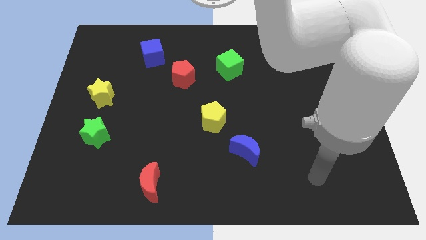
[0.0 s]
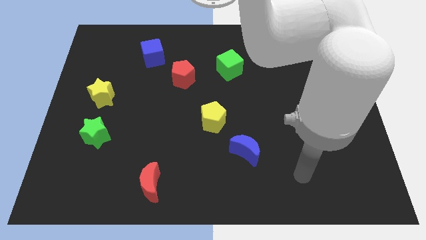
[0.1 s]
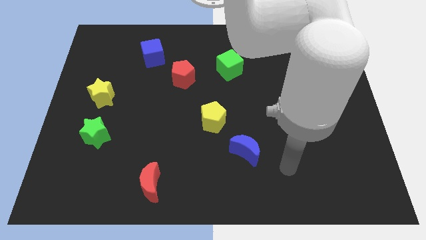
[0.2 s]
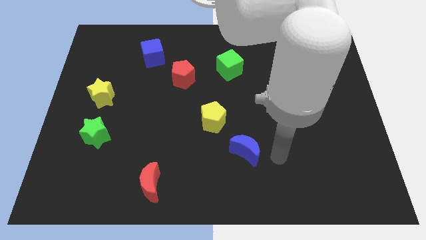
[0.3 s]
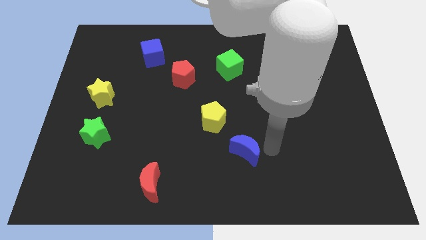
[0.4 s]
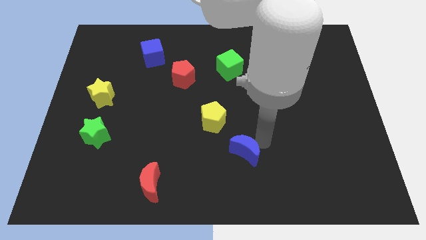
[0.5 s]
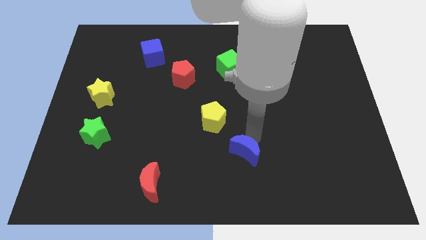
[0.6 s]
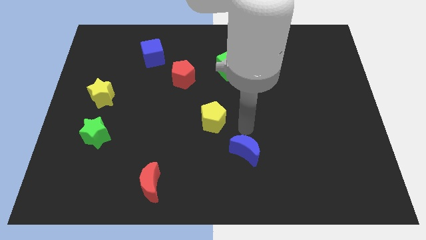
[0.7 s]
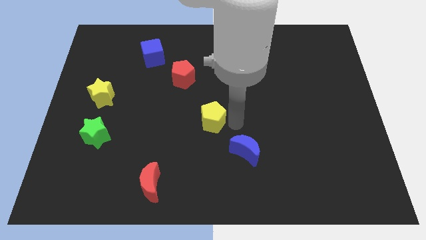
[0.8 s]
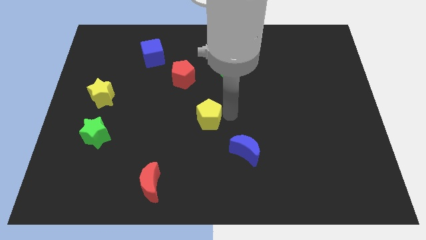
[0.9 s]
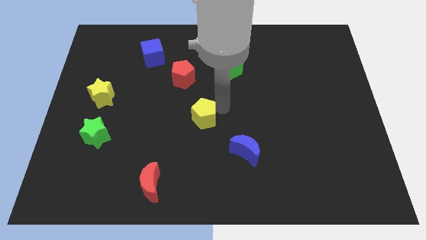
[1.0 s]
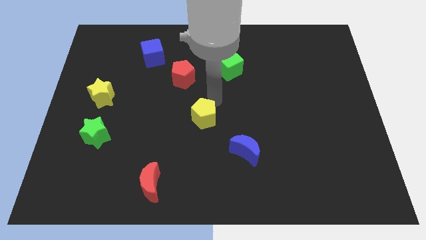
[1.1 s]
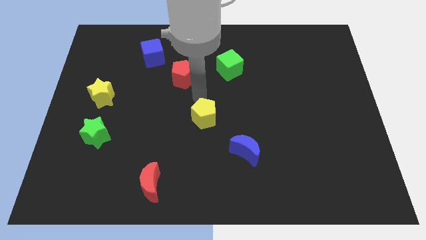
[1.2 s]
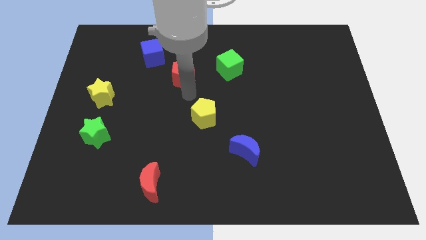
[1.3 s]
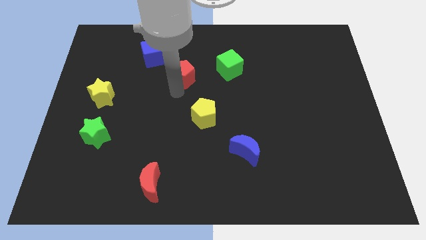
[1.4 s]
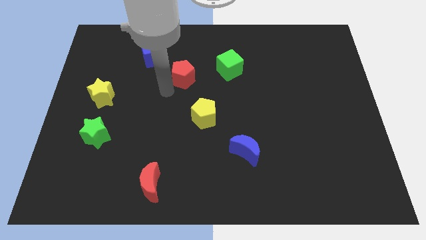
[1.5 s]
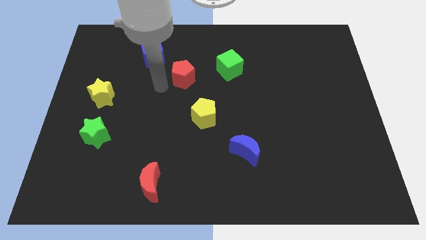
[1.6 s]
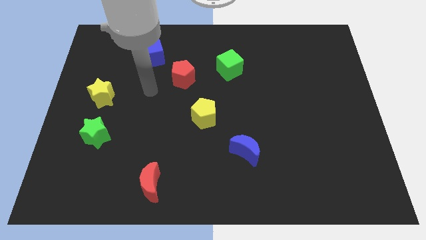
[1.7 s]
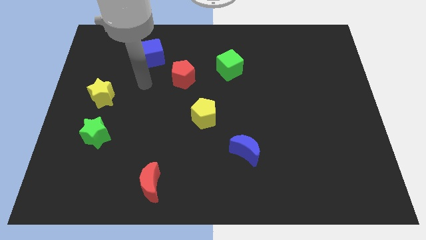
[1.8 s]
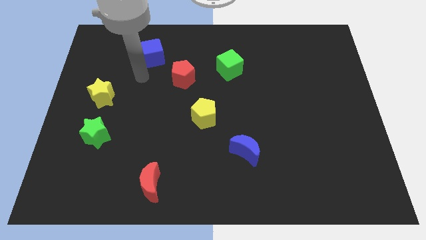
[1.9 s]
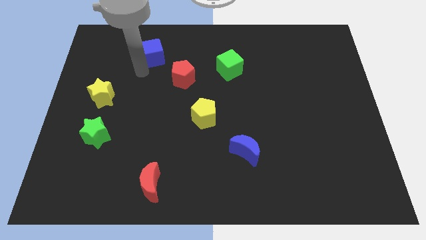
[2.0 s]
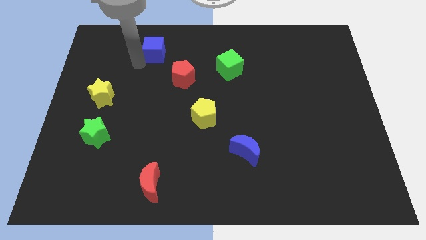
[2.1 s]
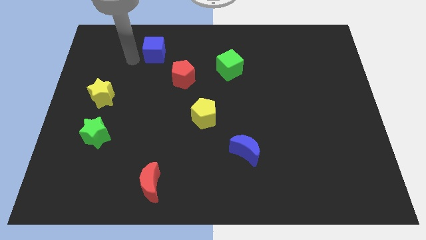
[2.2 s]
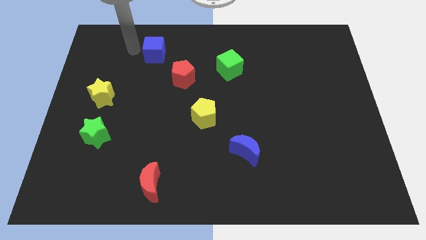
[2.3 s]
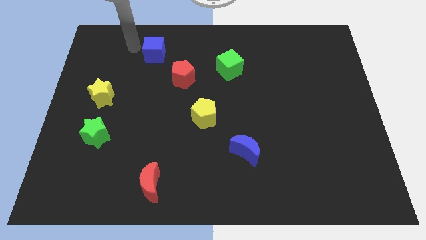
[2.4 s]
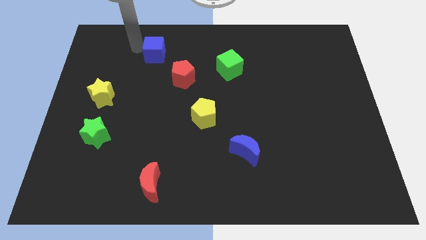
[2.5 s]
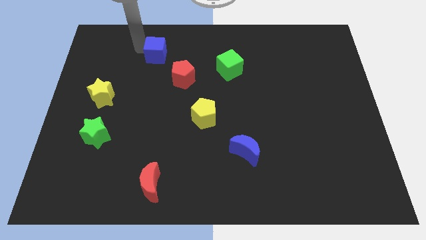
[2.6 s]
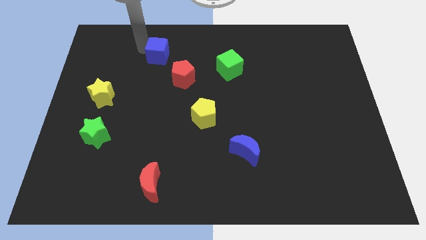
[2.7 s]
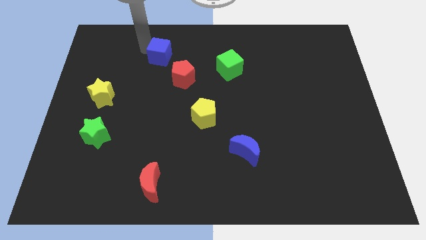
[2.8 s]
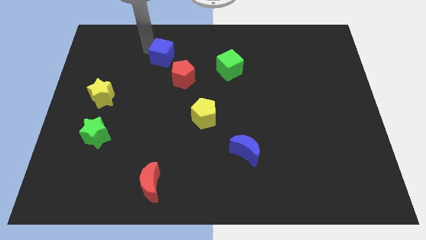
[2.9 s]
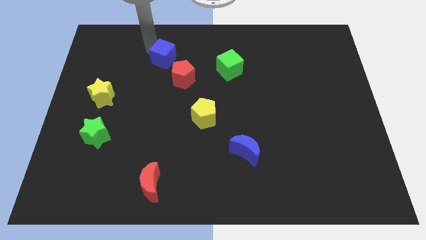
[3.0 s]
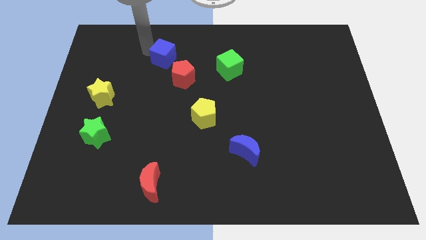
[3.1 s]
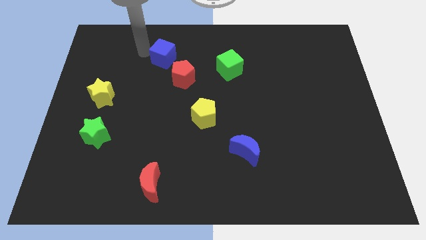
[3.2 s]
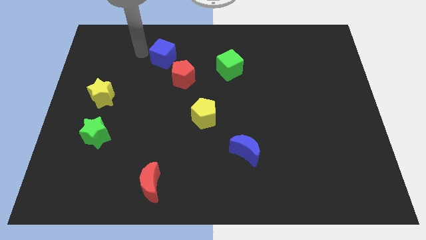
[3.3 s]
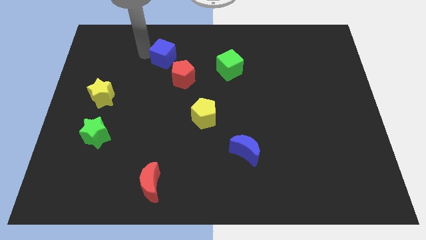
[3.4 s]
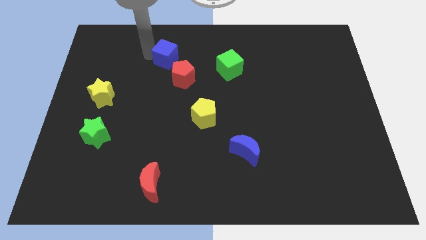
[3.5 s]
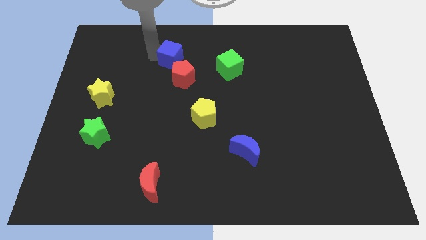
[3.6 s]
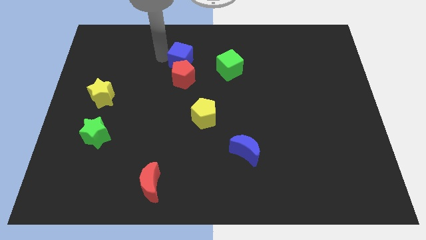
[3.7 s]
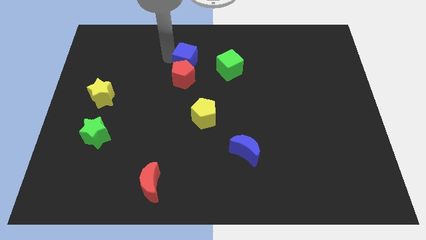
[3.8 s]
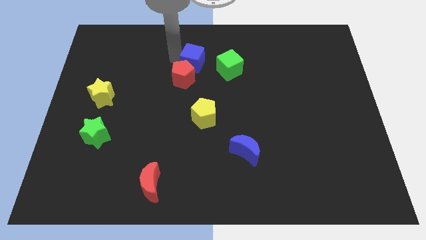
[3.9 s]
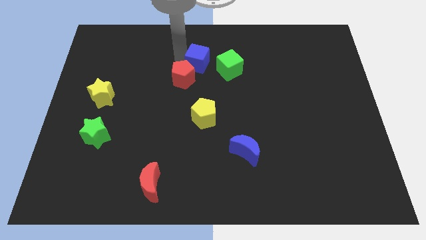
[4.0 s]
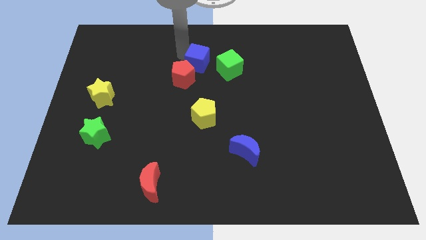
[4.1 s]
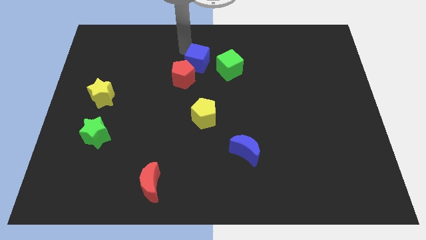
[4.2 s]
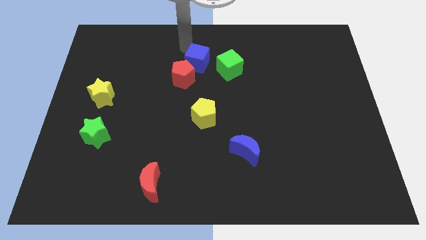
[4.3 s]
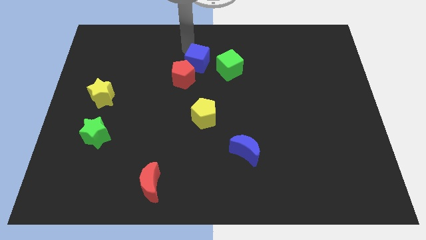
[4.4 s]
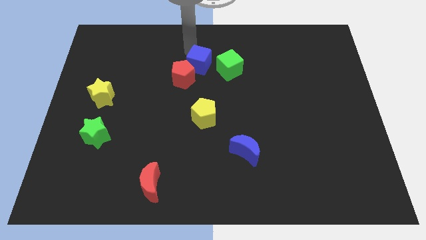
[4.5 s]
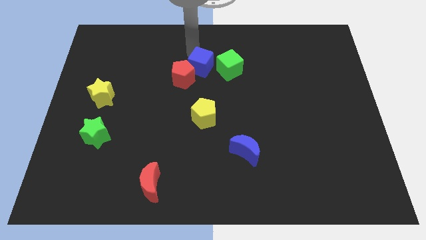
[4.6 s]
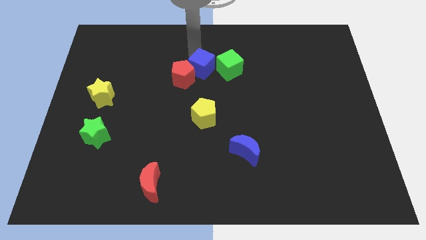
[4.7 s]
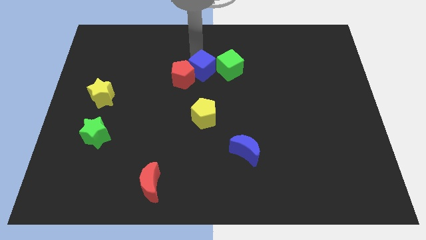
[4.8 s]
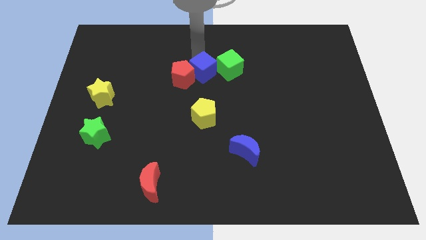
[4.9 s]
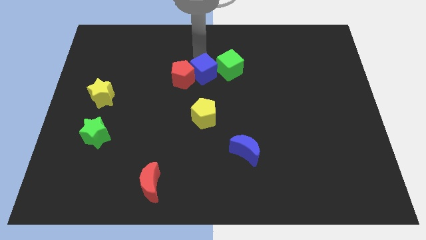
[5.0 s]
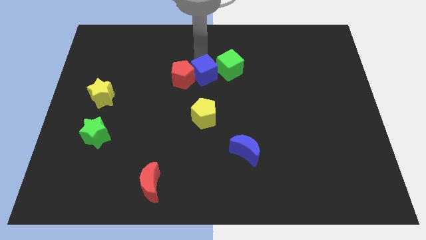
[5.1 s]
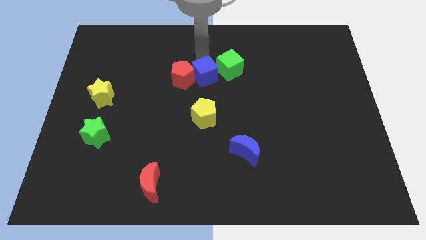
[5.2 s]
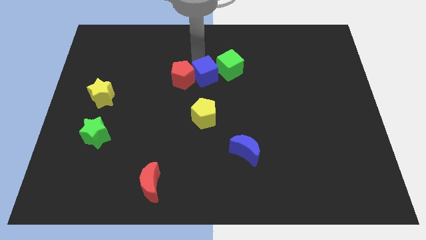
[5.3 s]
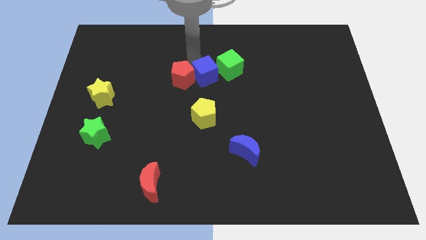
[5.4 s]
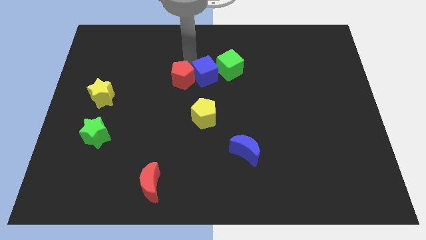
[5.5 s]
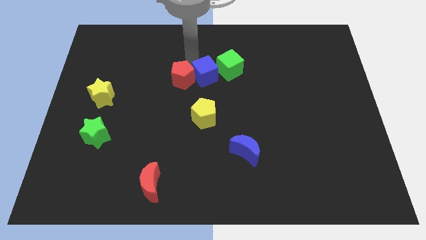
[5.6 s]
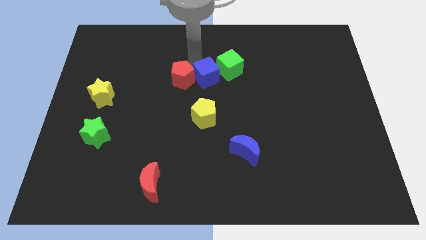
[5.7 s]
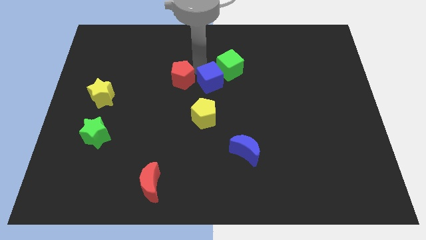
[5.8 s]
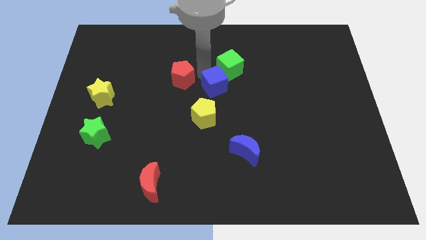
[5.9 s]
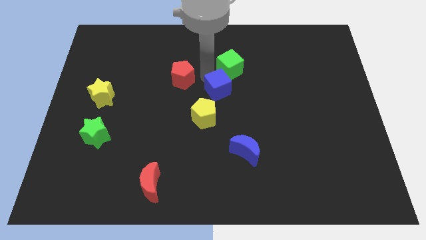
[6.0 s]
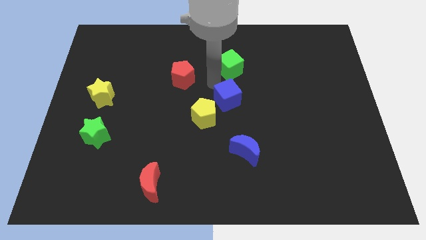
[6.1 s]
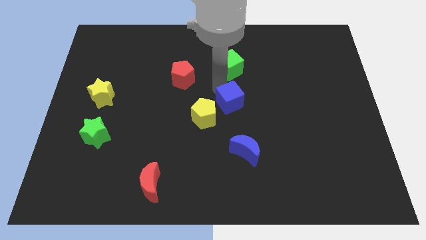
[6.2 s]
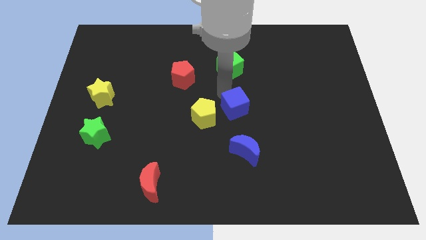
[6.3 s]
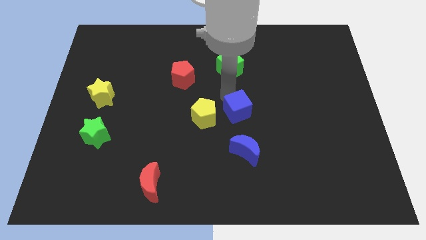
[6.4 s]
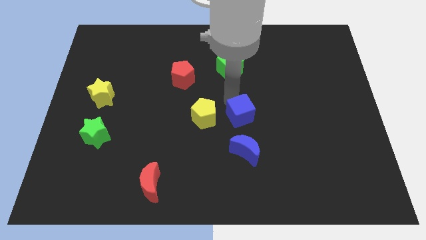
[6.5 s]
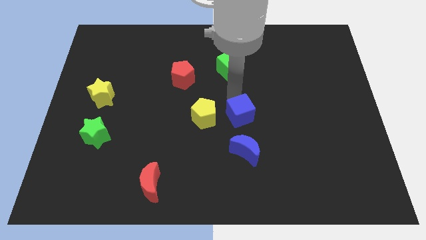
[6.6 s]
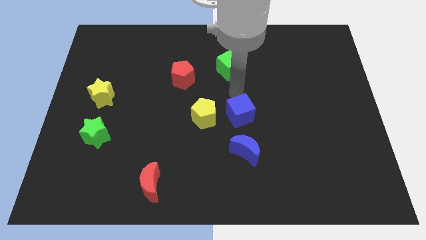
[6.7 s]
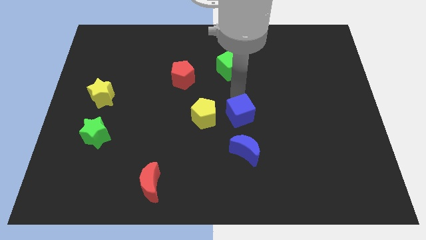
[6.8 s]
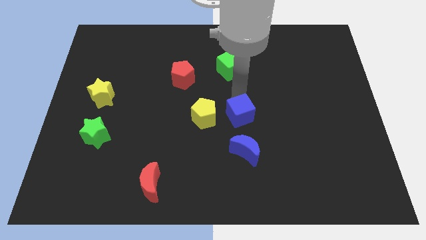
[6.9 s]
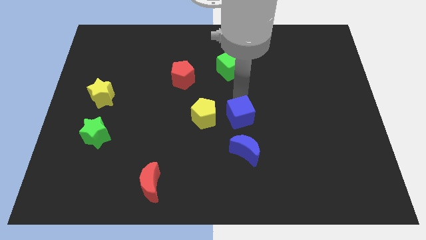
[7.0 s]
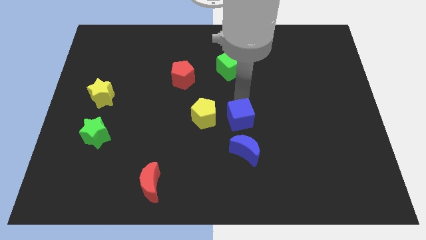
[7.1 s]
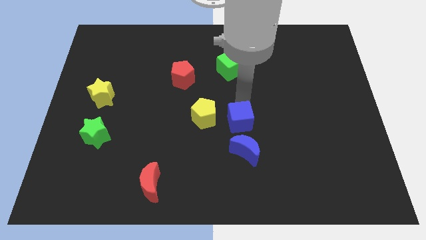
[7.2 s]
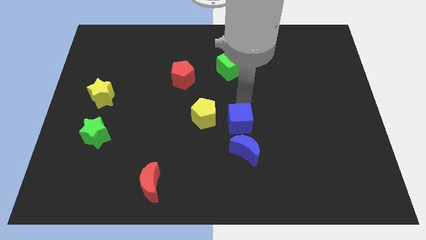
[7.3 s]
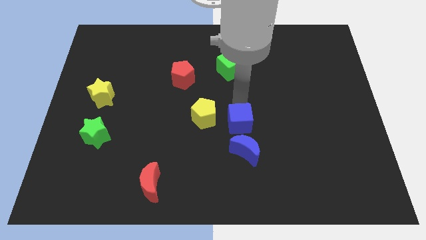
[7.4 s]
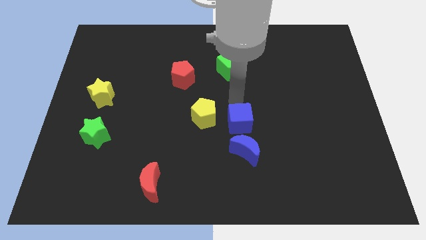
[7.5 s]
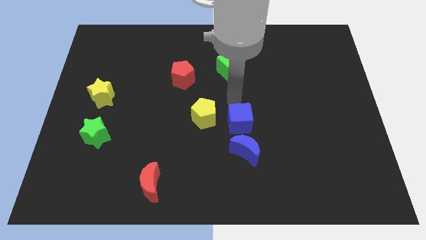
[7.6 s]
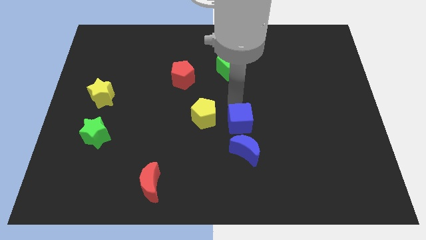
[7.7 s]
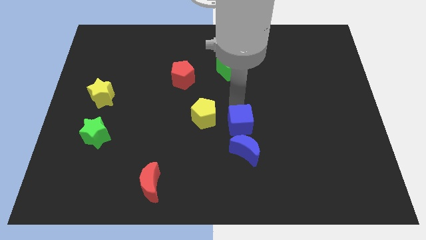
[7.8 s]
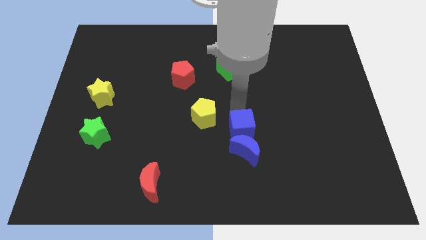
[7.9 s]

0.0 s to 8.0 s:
push the blue cube to the blue moon
